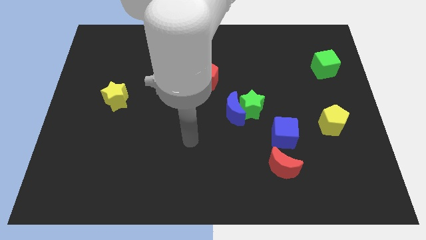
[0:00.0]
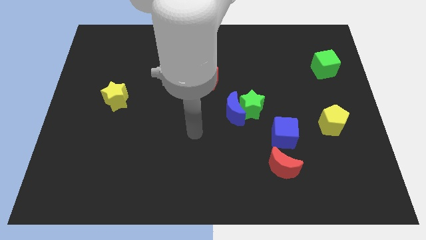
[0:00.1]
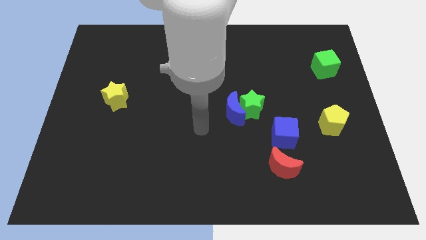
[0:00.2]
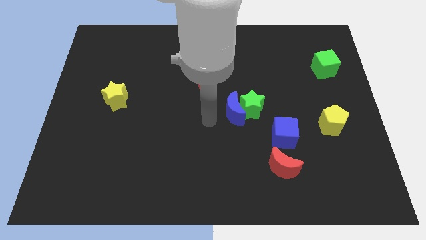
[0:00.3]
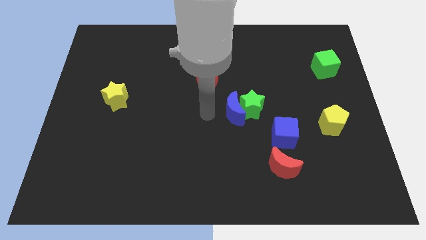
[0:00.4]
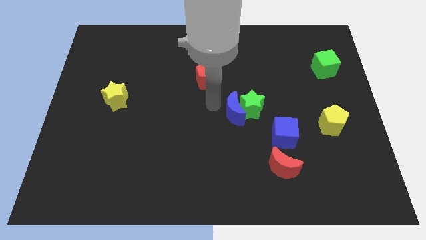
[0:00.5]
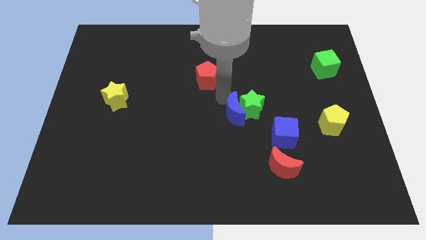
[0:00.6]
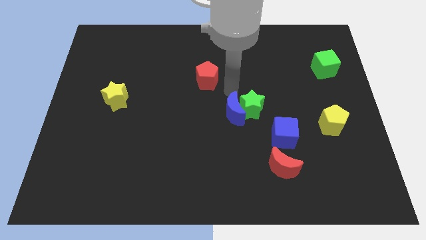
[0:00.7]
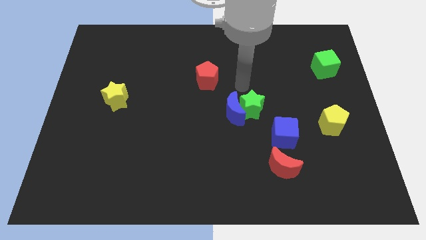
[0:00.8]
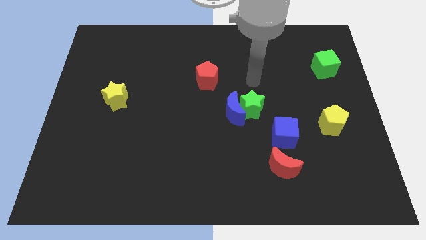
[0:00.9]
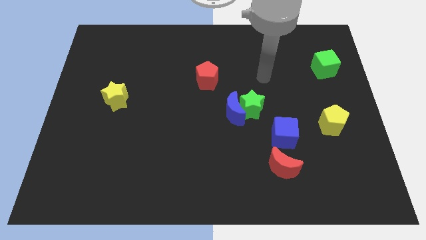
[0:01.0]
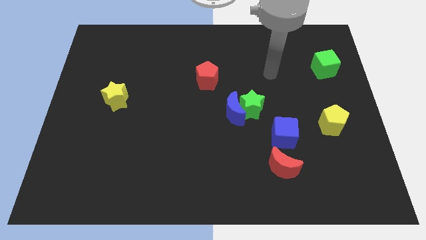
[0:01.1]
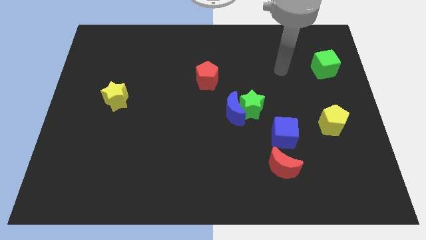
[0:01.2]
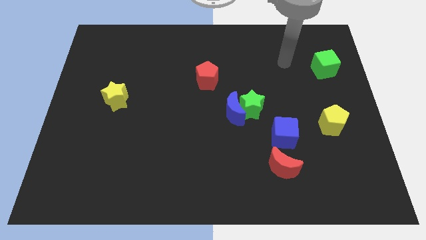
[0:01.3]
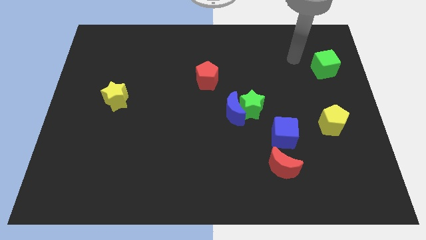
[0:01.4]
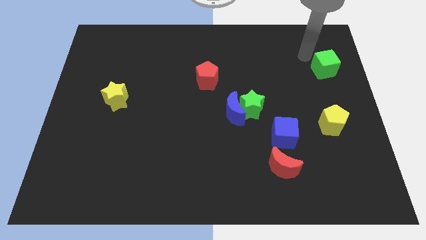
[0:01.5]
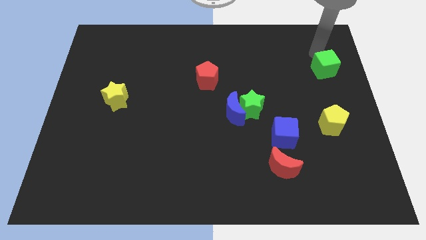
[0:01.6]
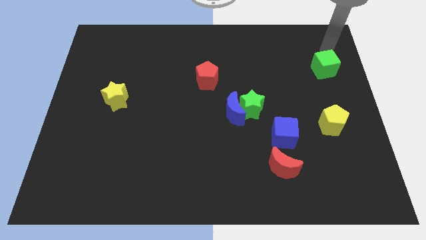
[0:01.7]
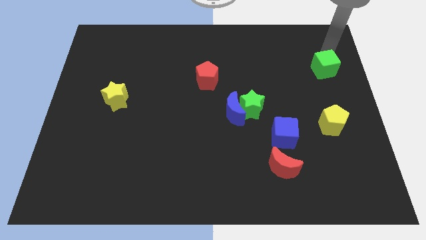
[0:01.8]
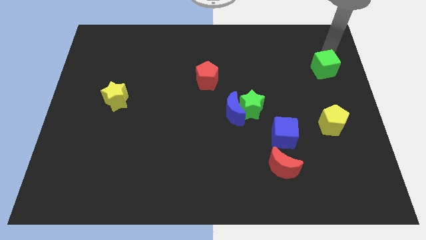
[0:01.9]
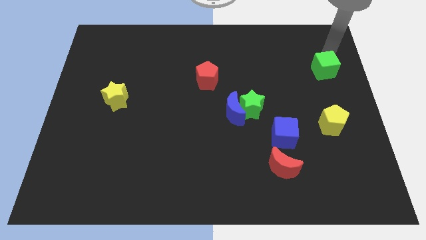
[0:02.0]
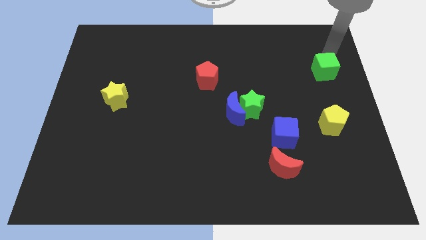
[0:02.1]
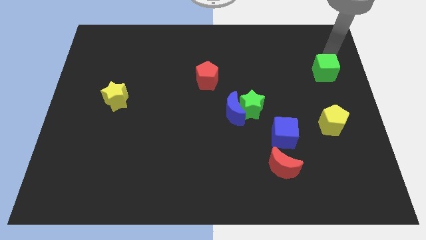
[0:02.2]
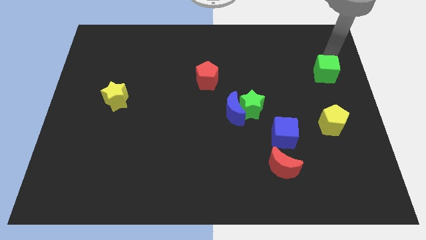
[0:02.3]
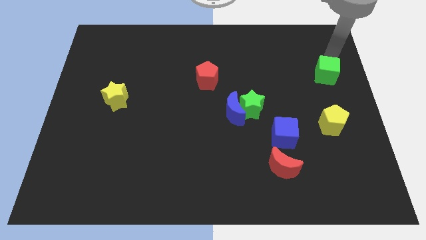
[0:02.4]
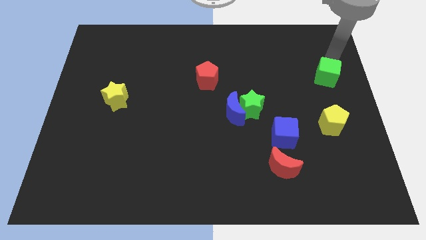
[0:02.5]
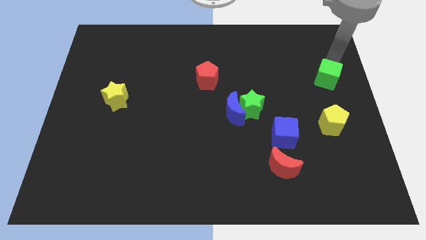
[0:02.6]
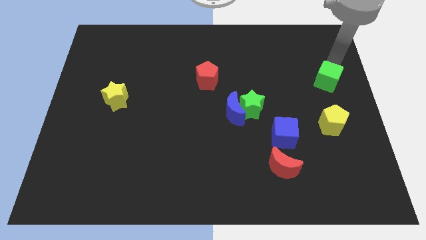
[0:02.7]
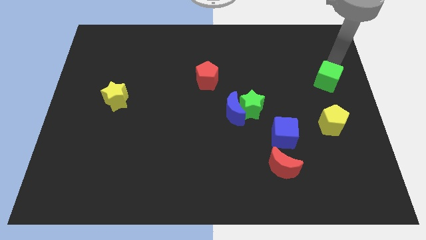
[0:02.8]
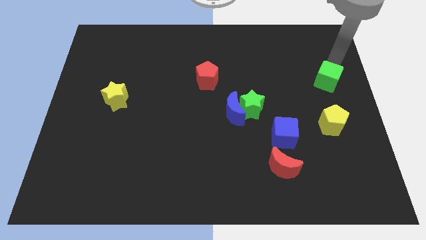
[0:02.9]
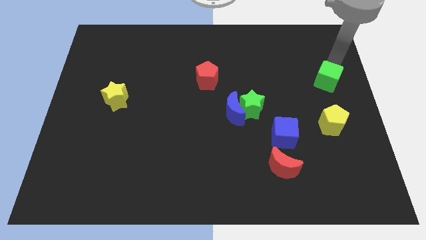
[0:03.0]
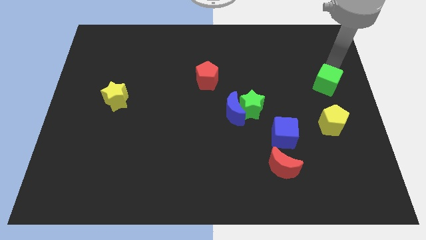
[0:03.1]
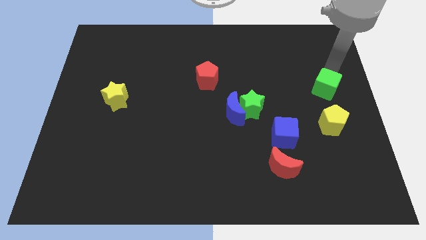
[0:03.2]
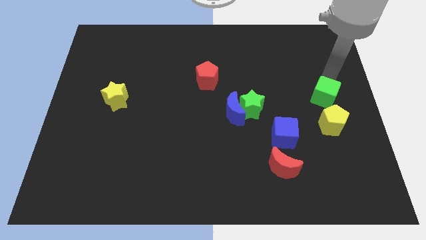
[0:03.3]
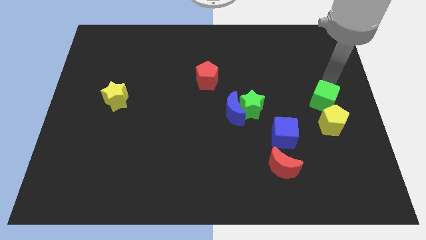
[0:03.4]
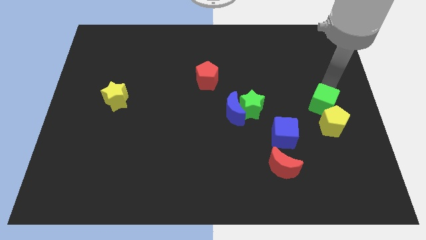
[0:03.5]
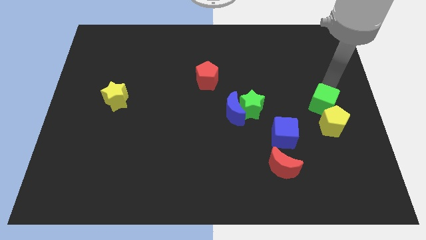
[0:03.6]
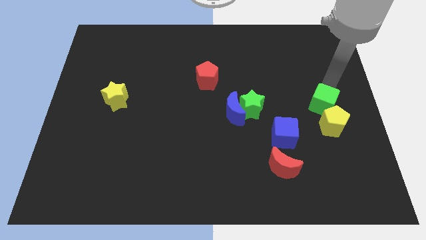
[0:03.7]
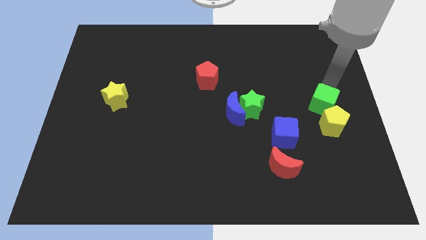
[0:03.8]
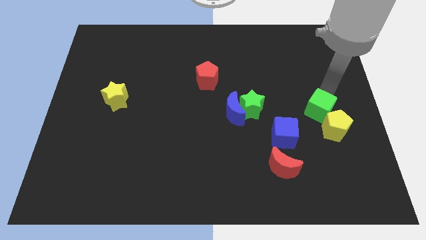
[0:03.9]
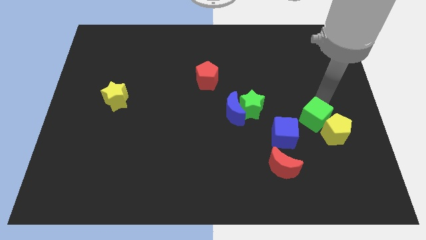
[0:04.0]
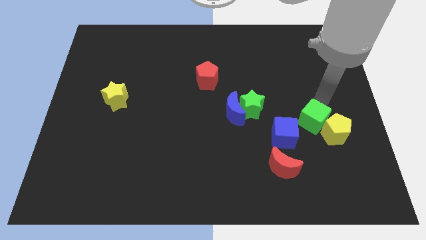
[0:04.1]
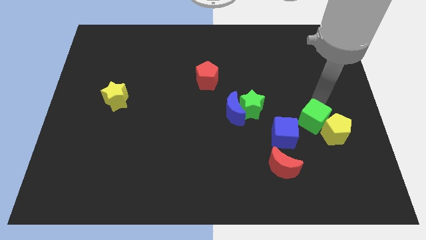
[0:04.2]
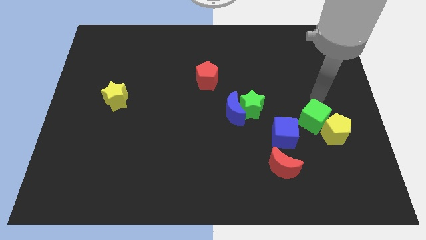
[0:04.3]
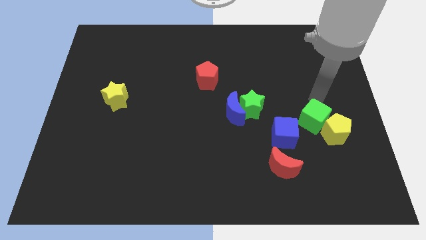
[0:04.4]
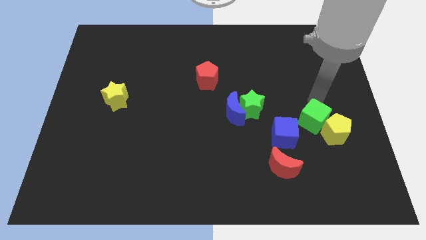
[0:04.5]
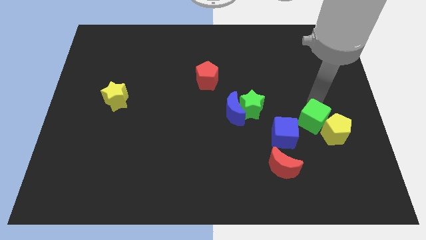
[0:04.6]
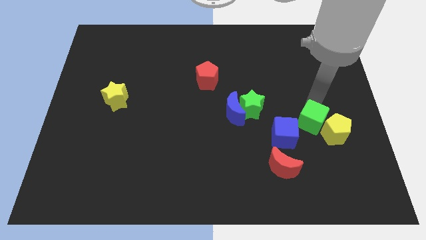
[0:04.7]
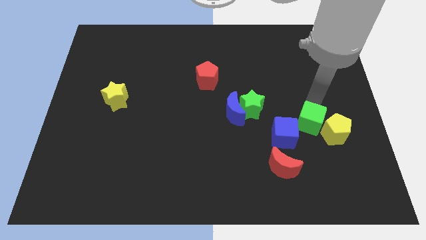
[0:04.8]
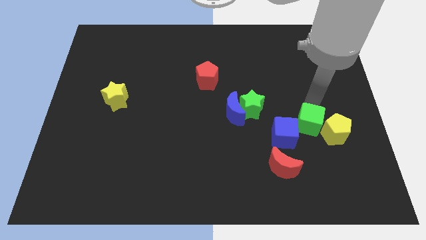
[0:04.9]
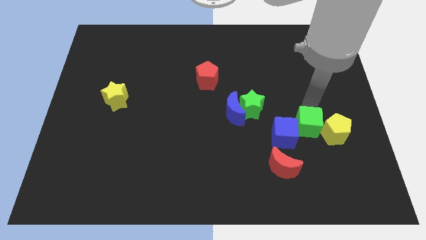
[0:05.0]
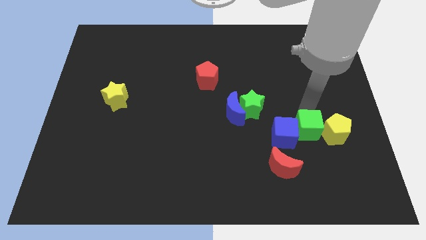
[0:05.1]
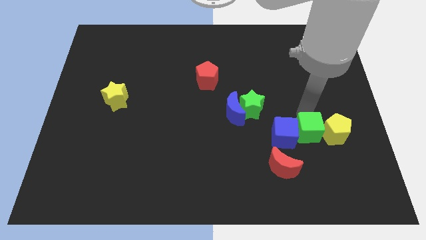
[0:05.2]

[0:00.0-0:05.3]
put the green cube to the bottom right side of the blue cube

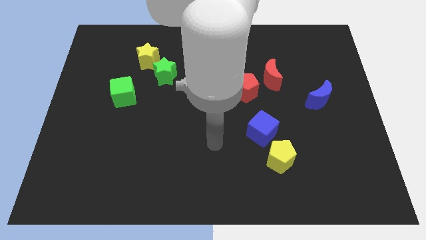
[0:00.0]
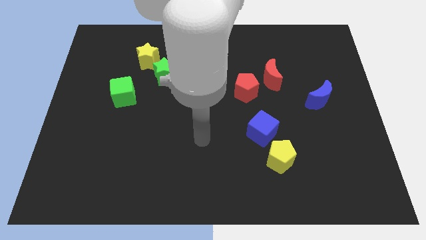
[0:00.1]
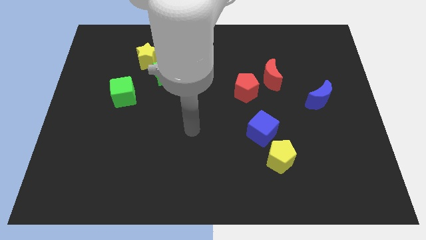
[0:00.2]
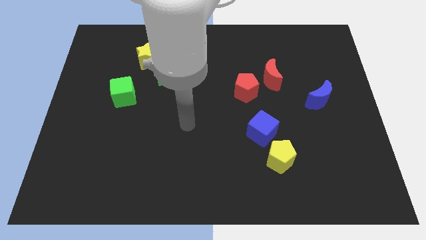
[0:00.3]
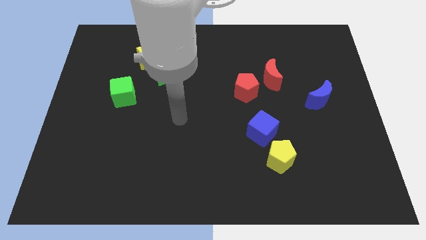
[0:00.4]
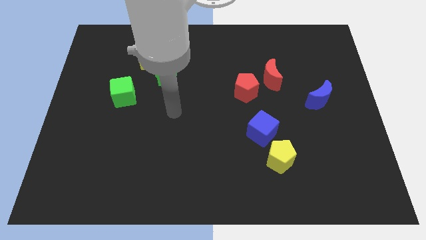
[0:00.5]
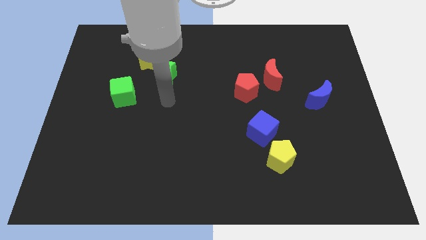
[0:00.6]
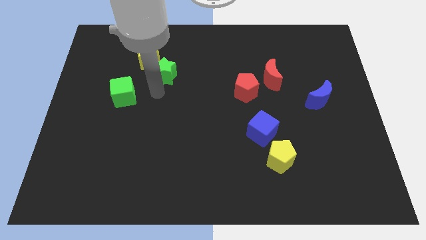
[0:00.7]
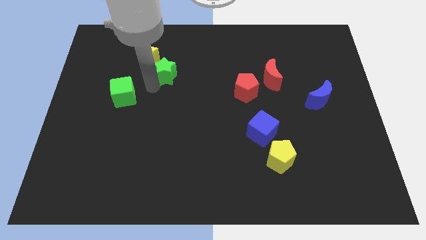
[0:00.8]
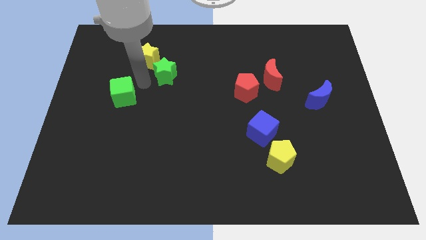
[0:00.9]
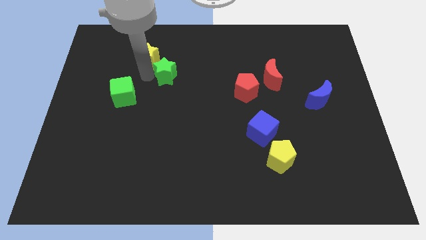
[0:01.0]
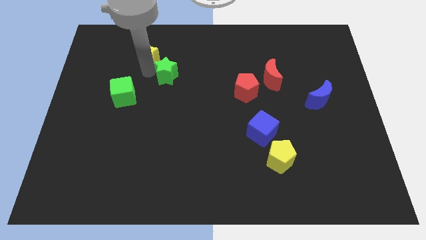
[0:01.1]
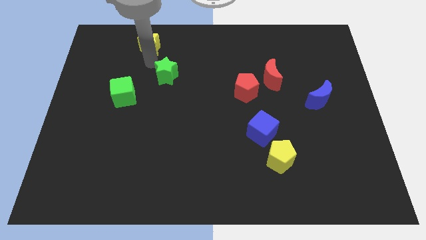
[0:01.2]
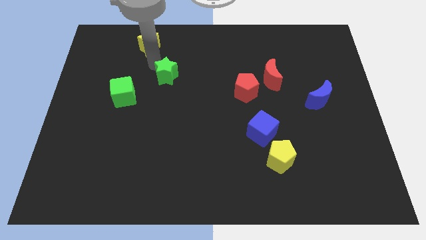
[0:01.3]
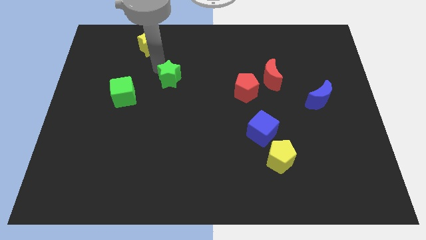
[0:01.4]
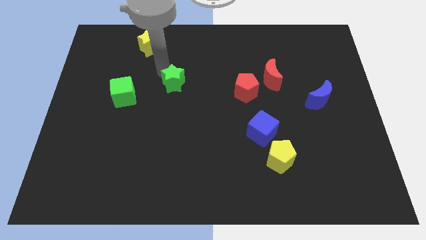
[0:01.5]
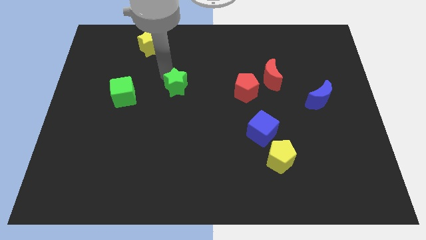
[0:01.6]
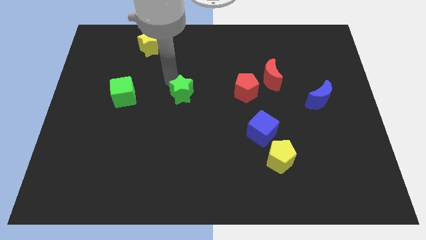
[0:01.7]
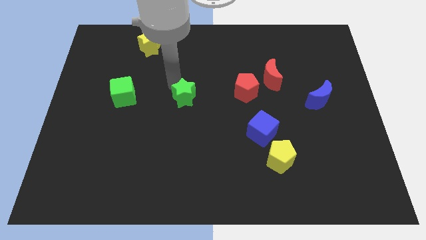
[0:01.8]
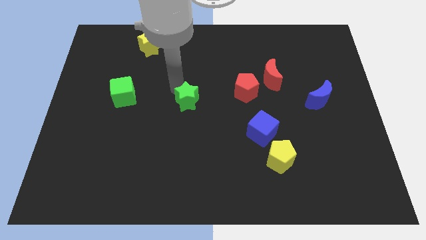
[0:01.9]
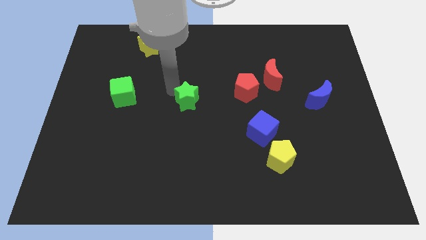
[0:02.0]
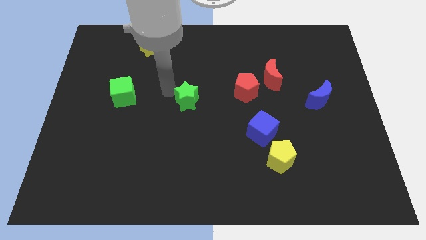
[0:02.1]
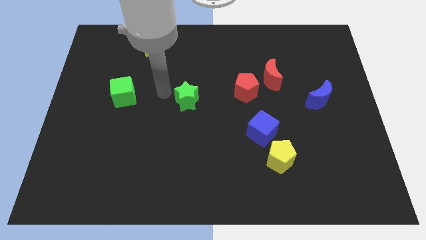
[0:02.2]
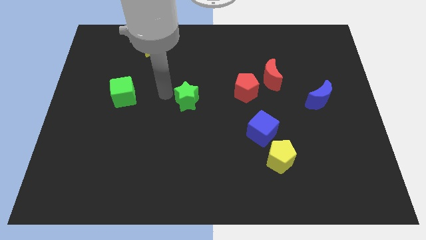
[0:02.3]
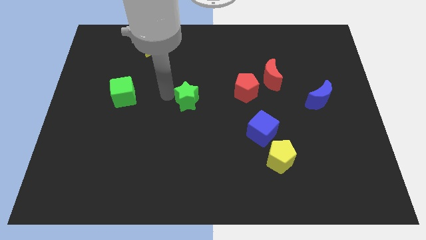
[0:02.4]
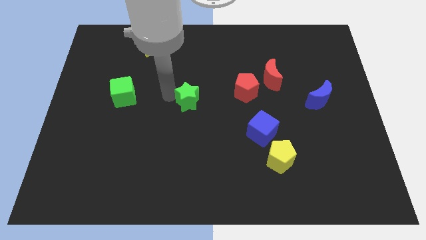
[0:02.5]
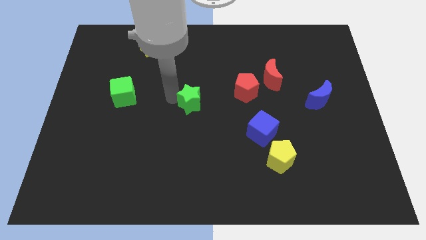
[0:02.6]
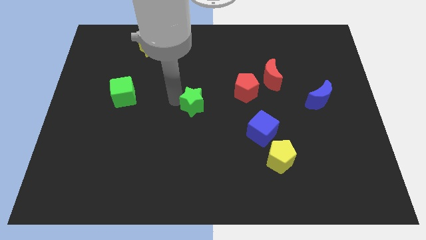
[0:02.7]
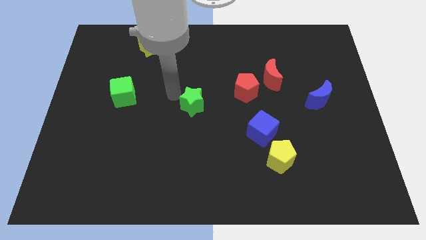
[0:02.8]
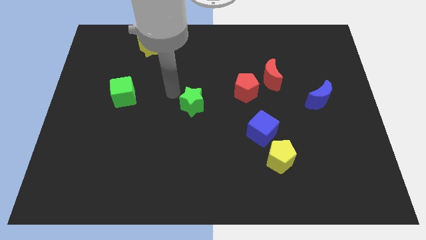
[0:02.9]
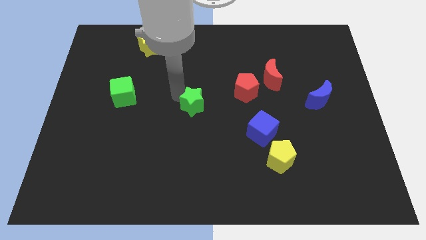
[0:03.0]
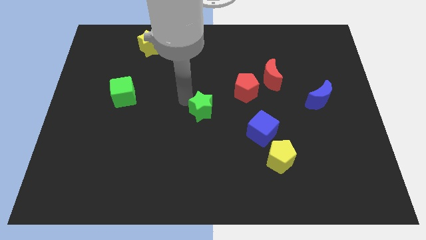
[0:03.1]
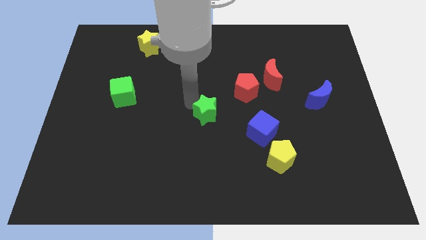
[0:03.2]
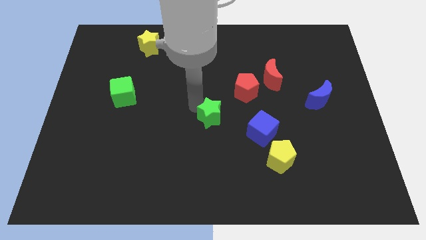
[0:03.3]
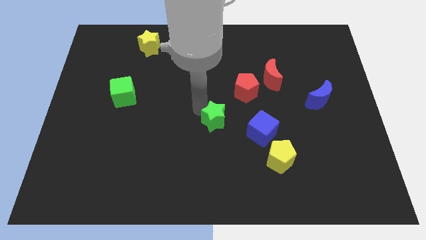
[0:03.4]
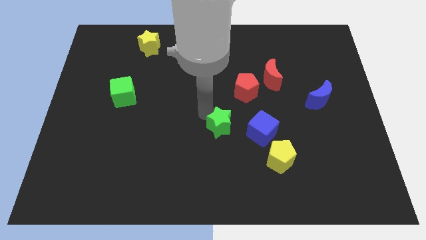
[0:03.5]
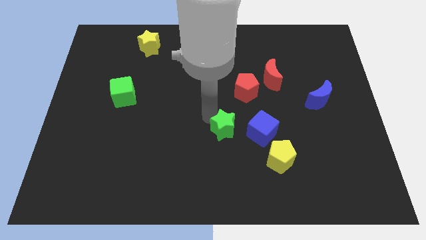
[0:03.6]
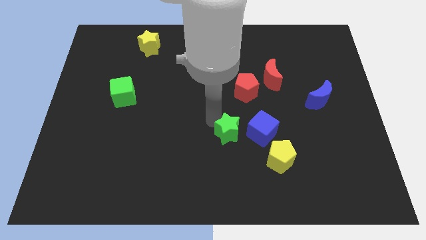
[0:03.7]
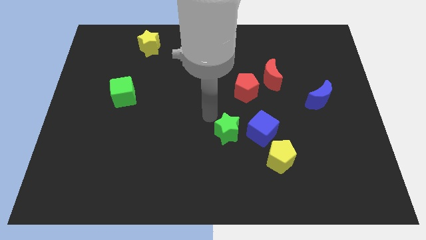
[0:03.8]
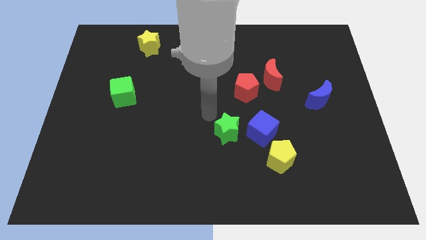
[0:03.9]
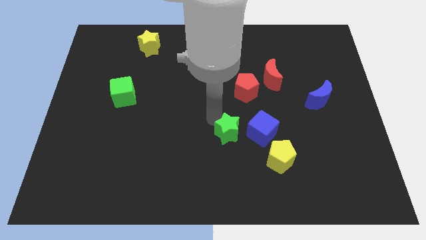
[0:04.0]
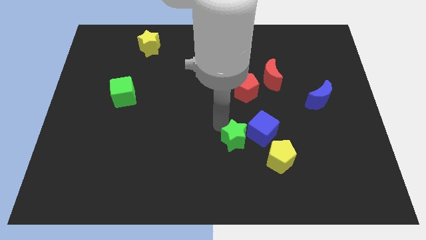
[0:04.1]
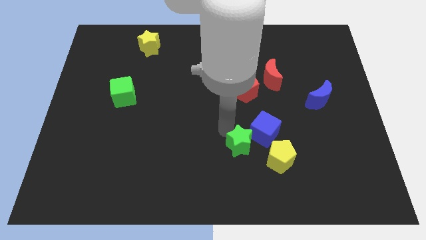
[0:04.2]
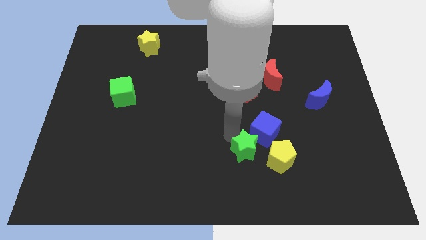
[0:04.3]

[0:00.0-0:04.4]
move the green star to the bottom of the blue cube
